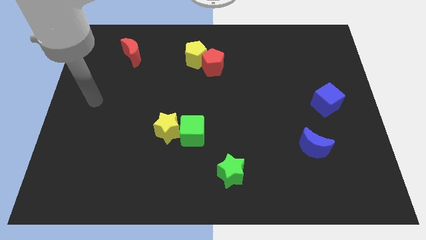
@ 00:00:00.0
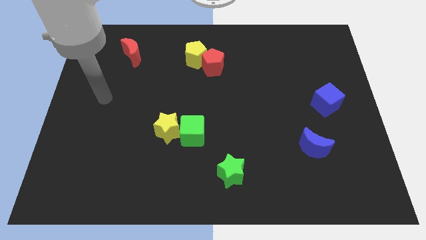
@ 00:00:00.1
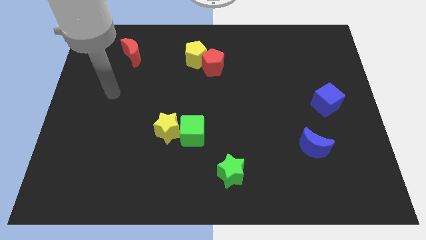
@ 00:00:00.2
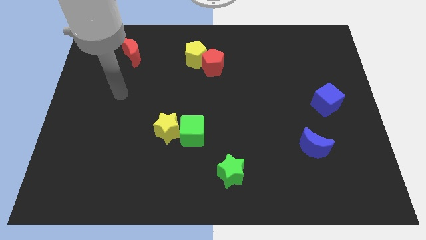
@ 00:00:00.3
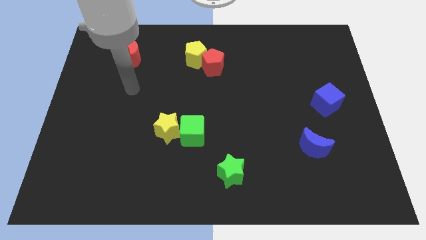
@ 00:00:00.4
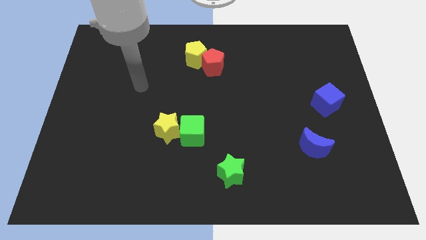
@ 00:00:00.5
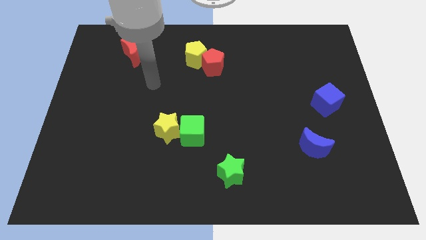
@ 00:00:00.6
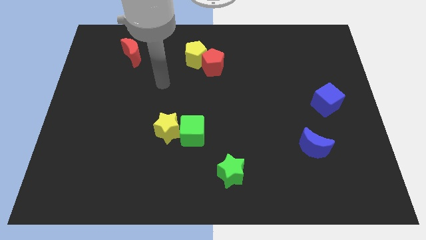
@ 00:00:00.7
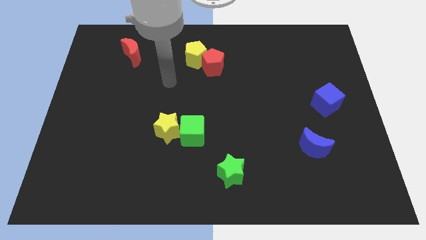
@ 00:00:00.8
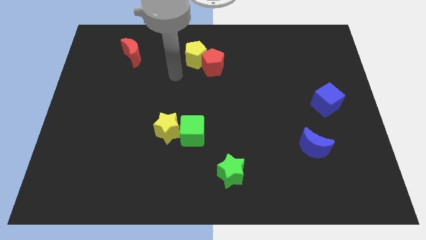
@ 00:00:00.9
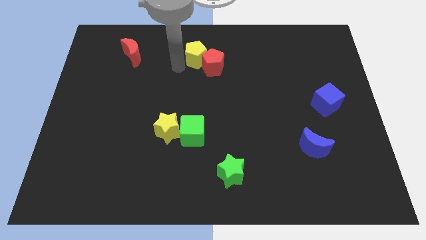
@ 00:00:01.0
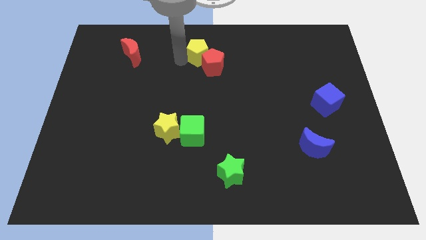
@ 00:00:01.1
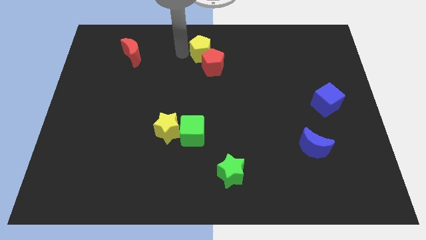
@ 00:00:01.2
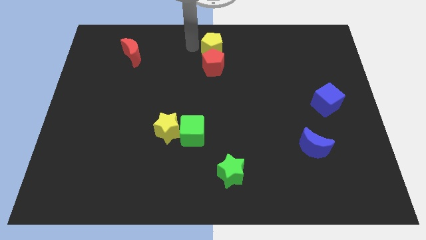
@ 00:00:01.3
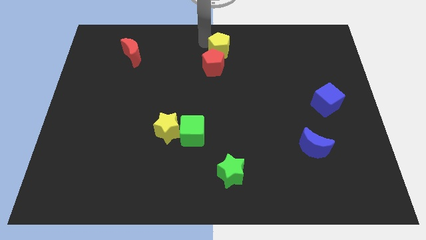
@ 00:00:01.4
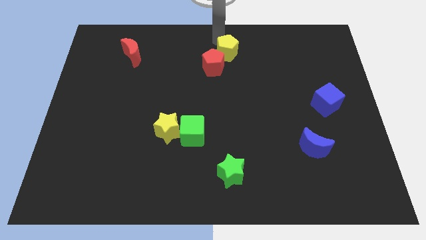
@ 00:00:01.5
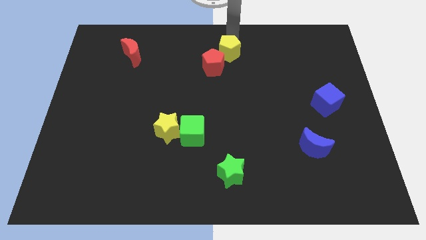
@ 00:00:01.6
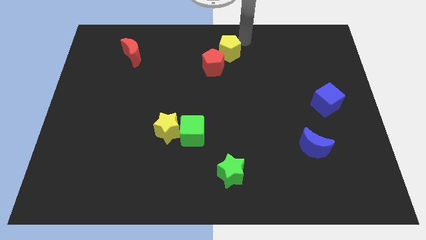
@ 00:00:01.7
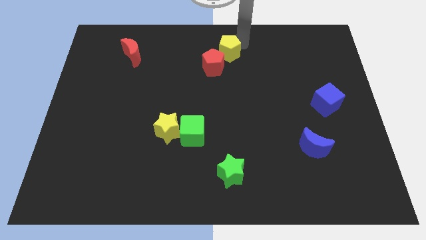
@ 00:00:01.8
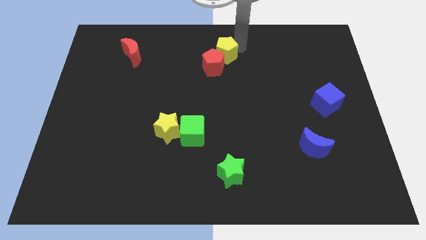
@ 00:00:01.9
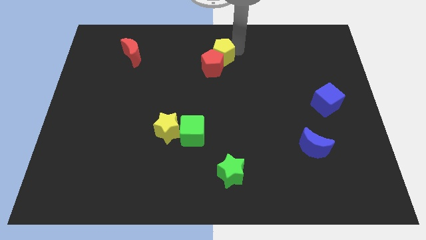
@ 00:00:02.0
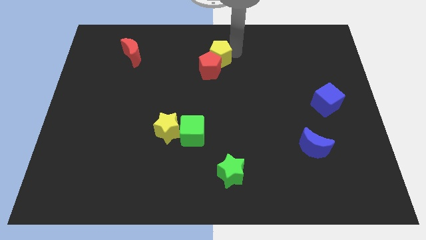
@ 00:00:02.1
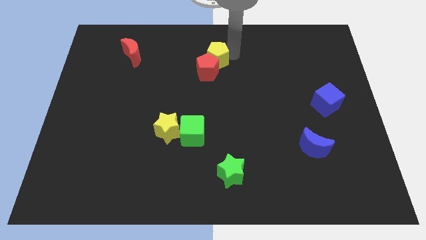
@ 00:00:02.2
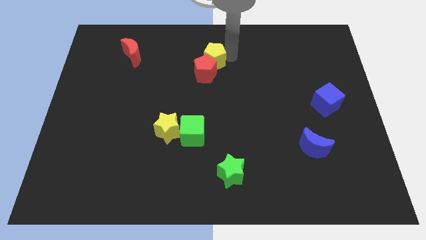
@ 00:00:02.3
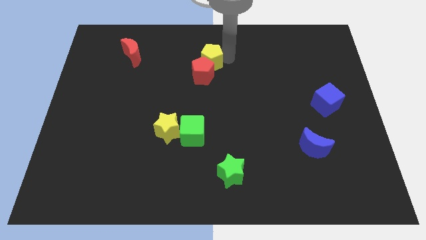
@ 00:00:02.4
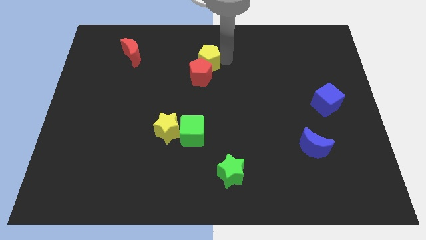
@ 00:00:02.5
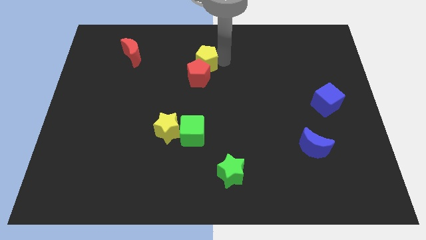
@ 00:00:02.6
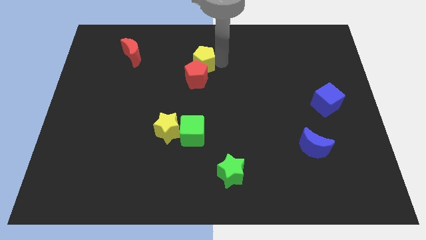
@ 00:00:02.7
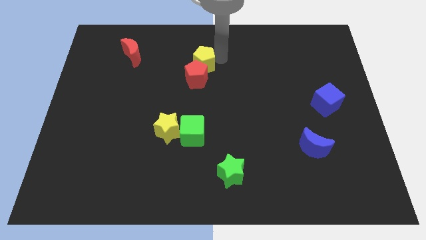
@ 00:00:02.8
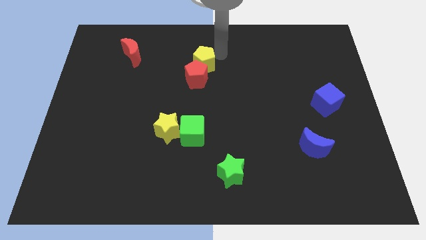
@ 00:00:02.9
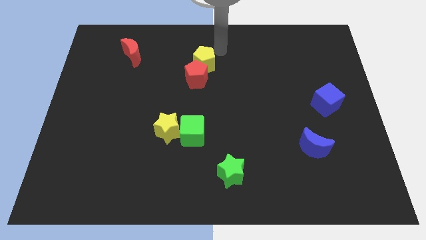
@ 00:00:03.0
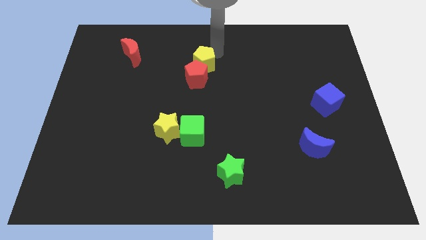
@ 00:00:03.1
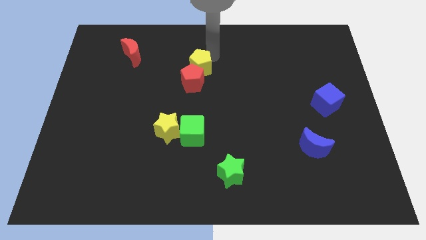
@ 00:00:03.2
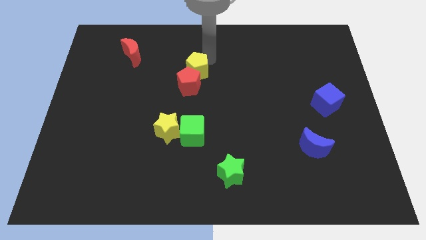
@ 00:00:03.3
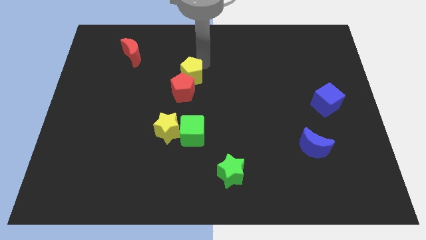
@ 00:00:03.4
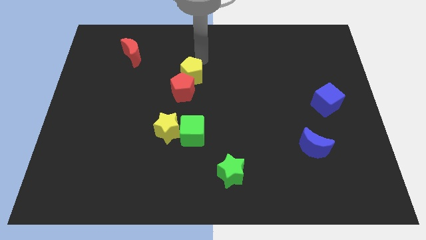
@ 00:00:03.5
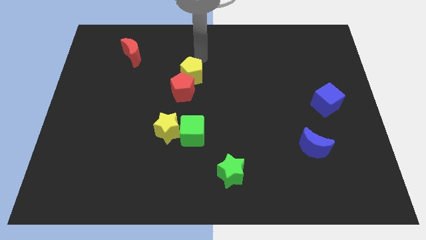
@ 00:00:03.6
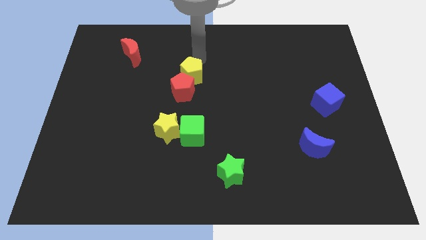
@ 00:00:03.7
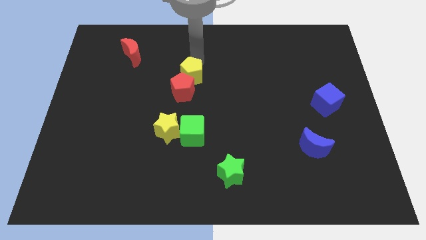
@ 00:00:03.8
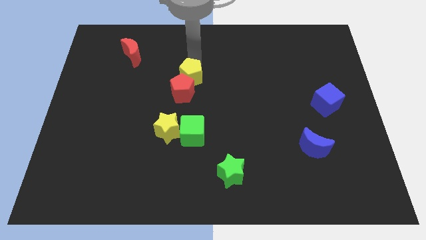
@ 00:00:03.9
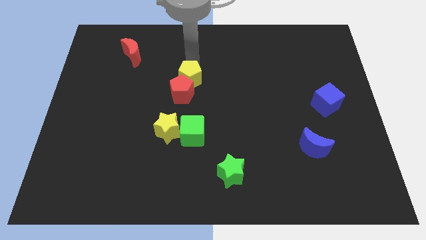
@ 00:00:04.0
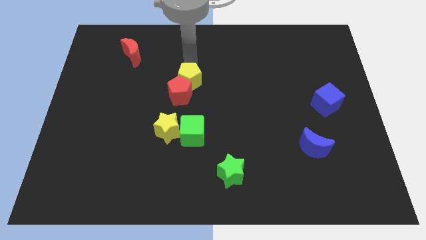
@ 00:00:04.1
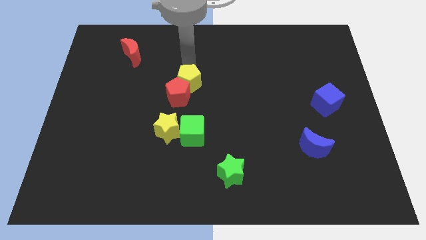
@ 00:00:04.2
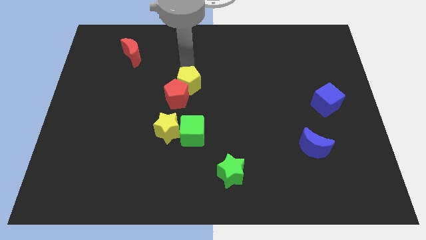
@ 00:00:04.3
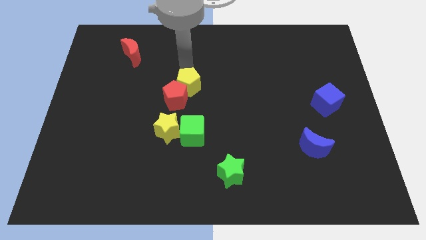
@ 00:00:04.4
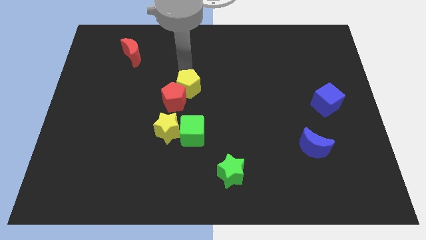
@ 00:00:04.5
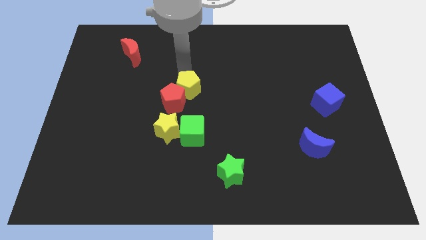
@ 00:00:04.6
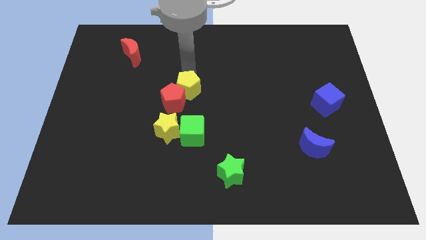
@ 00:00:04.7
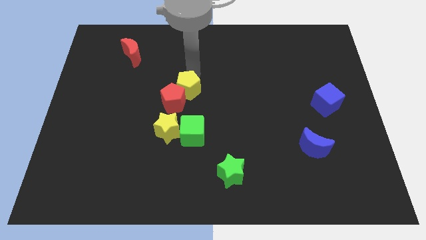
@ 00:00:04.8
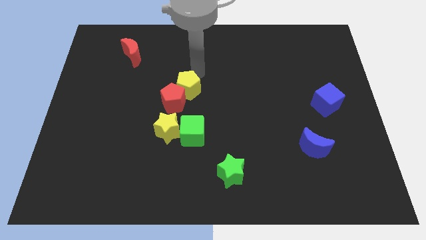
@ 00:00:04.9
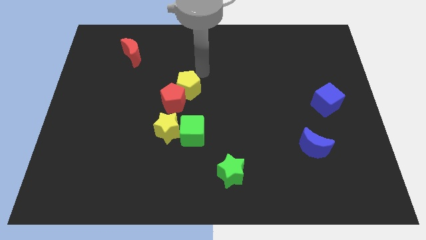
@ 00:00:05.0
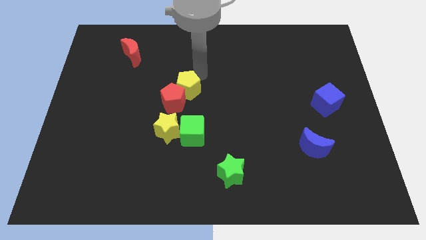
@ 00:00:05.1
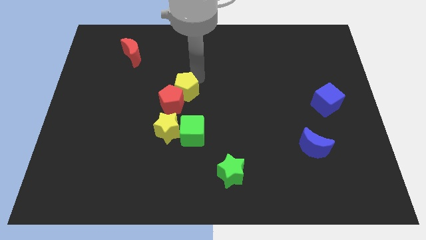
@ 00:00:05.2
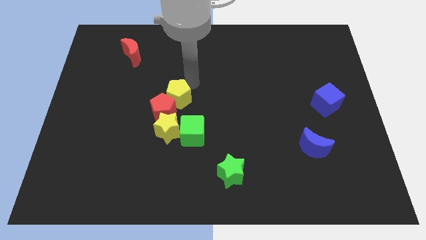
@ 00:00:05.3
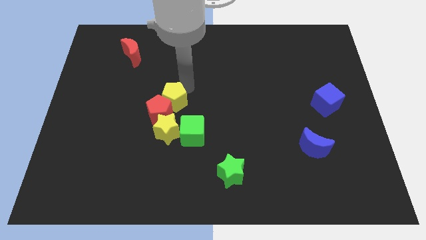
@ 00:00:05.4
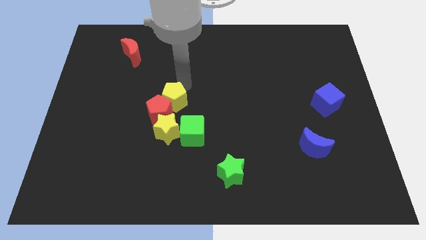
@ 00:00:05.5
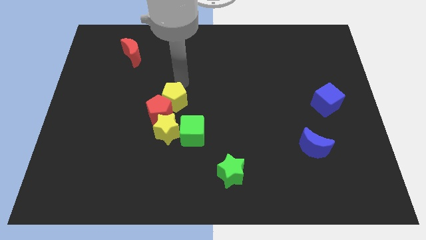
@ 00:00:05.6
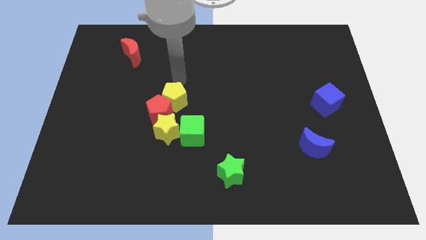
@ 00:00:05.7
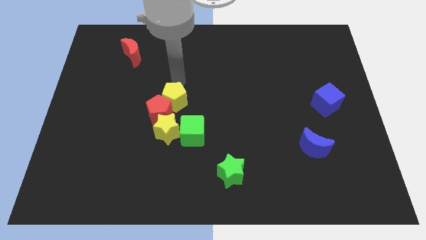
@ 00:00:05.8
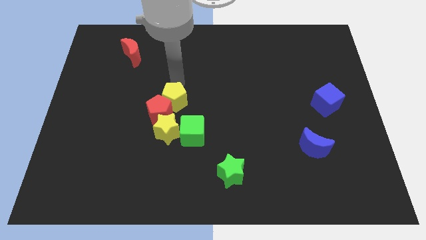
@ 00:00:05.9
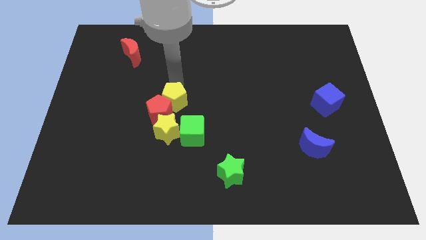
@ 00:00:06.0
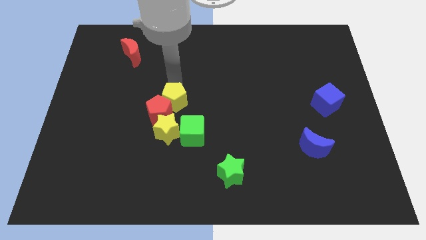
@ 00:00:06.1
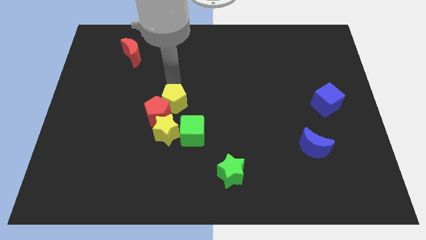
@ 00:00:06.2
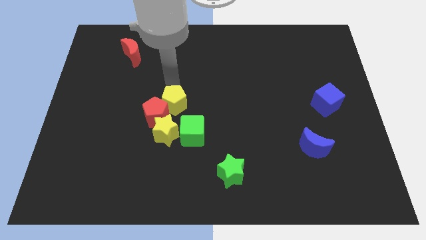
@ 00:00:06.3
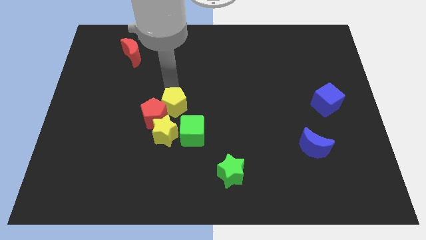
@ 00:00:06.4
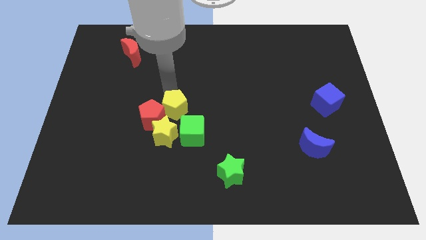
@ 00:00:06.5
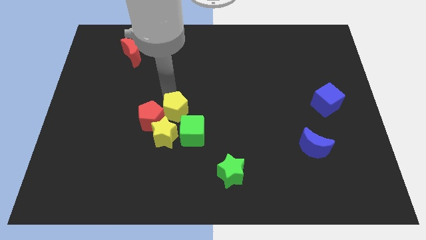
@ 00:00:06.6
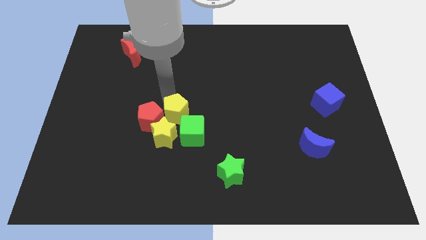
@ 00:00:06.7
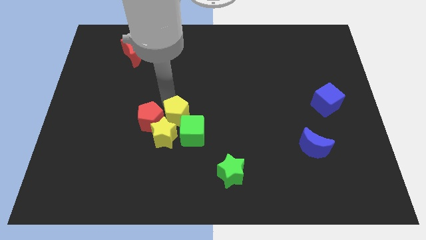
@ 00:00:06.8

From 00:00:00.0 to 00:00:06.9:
put the yellow pentagon towards the yellow star

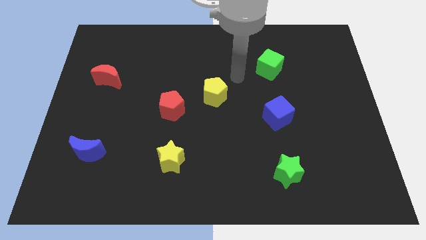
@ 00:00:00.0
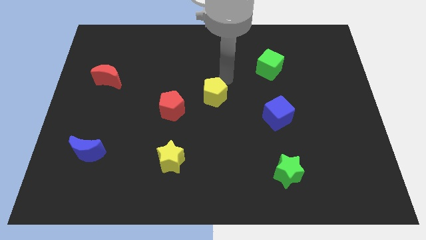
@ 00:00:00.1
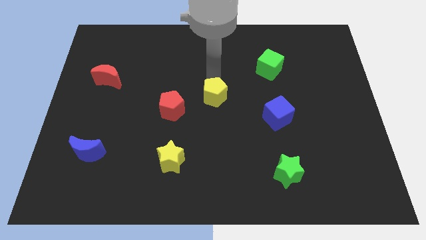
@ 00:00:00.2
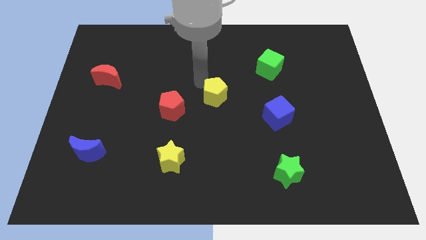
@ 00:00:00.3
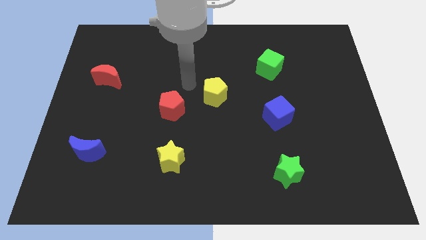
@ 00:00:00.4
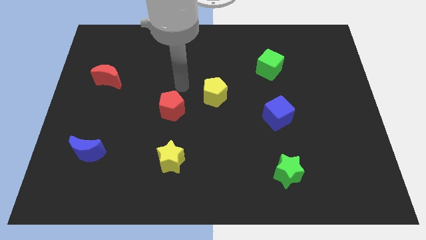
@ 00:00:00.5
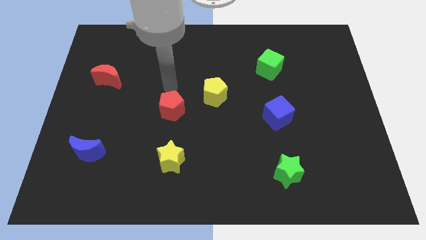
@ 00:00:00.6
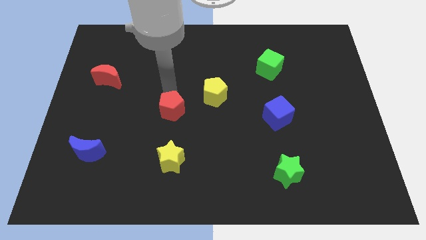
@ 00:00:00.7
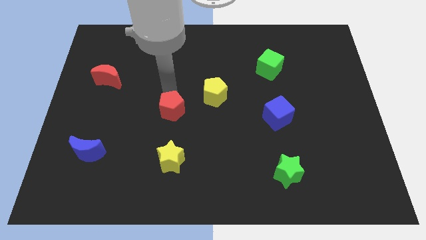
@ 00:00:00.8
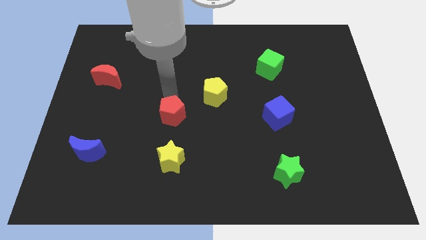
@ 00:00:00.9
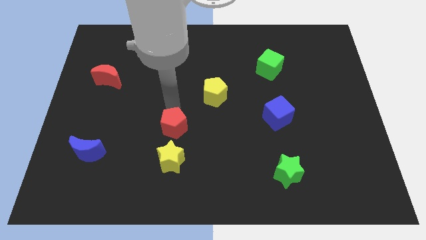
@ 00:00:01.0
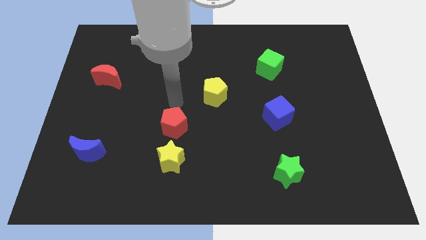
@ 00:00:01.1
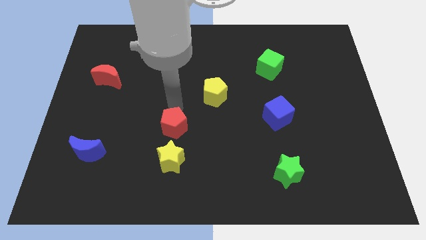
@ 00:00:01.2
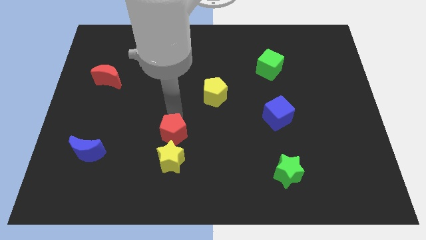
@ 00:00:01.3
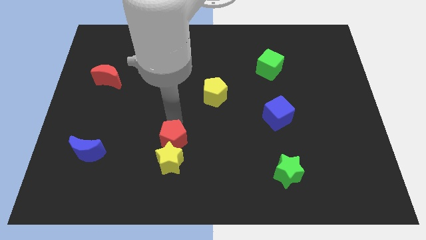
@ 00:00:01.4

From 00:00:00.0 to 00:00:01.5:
move the red pentagon to the yellow star
